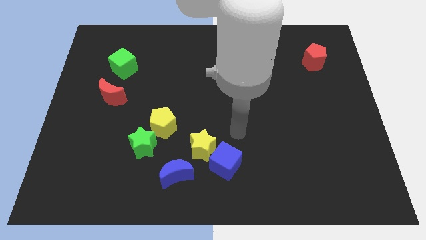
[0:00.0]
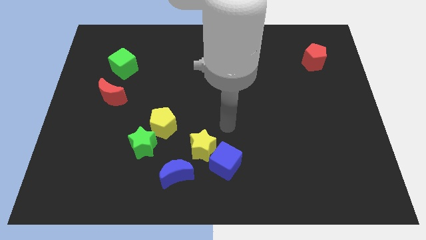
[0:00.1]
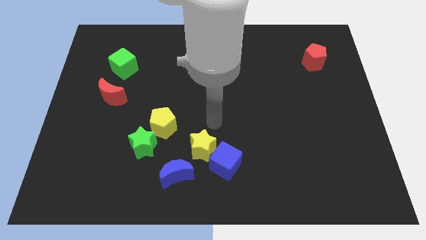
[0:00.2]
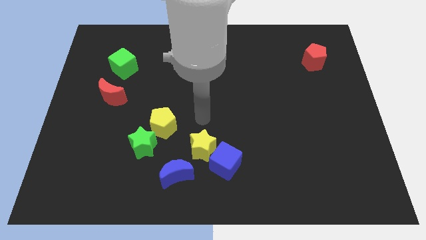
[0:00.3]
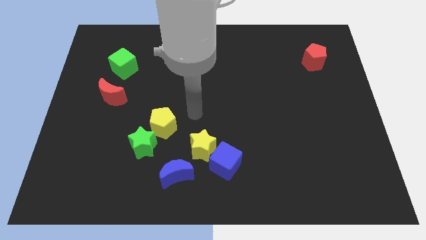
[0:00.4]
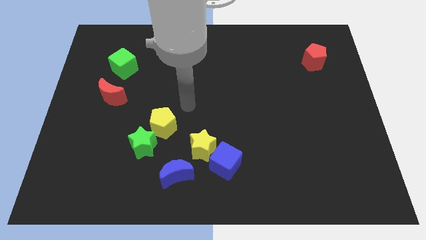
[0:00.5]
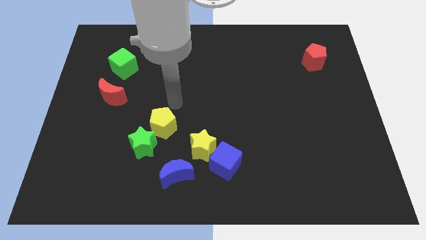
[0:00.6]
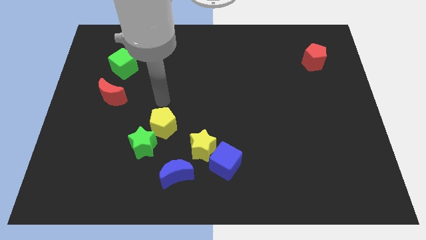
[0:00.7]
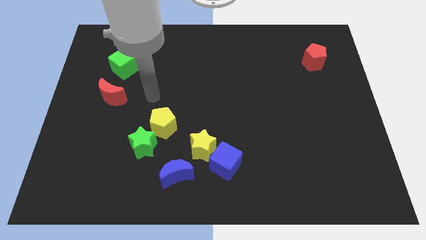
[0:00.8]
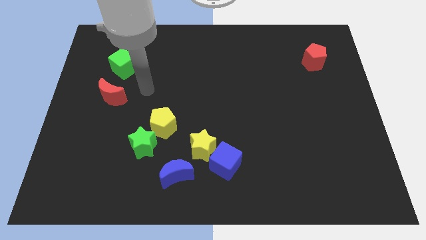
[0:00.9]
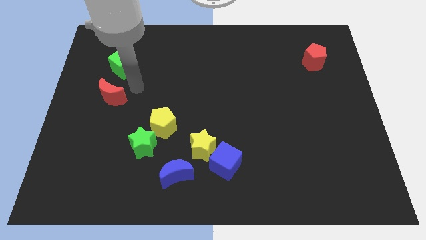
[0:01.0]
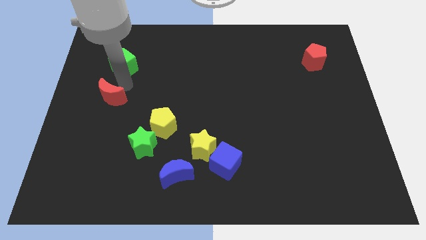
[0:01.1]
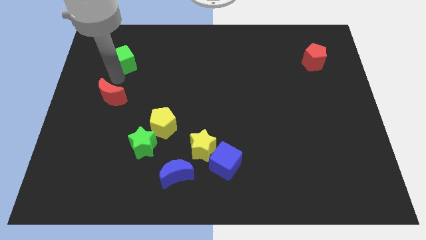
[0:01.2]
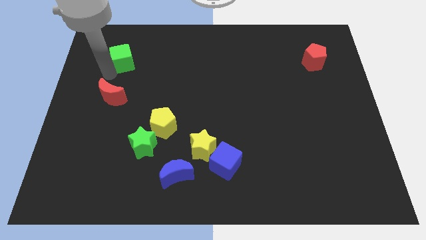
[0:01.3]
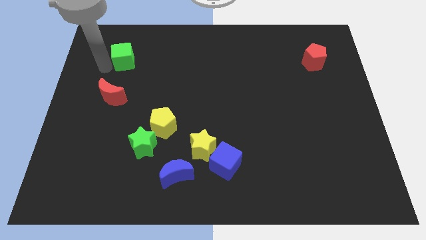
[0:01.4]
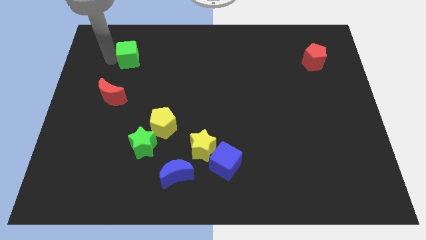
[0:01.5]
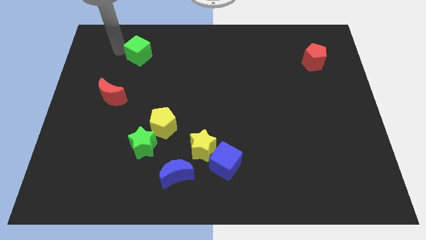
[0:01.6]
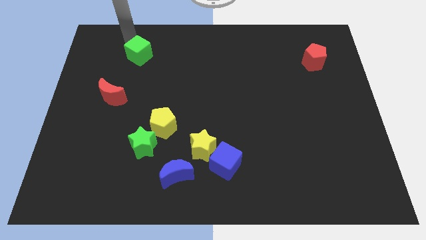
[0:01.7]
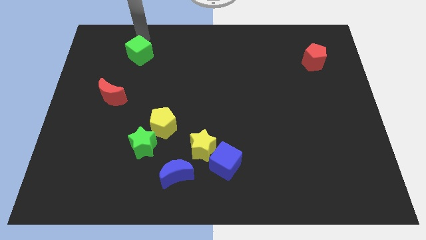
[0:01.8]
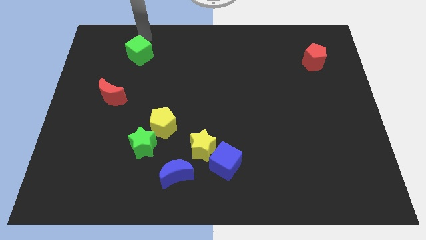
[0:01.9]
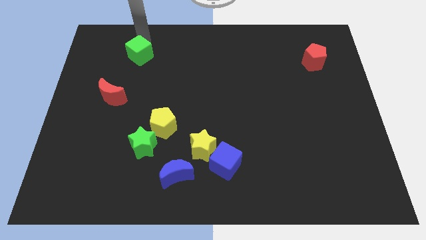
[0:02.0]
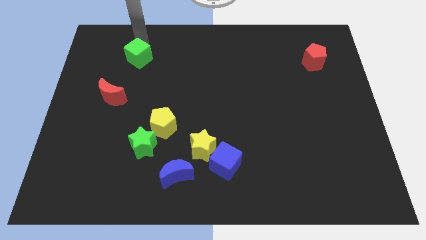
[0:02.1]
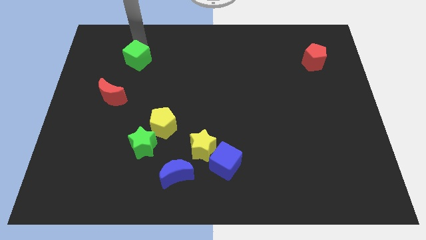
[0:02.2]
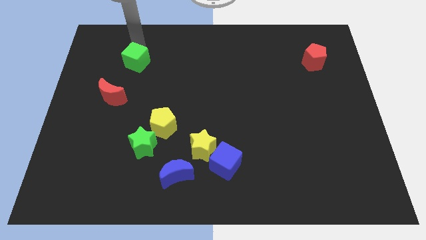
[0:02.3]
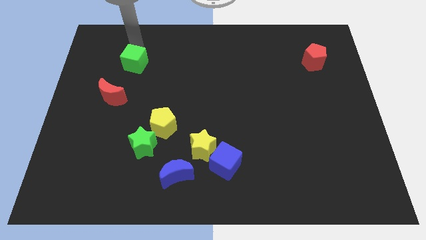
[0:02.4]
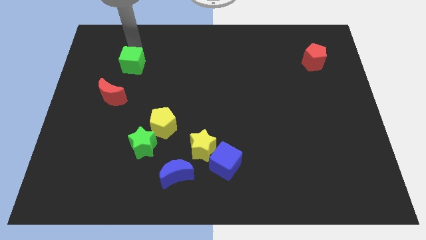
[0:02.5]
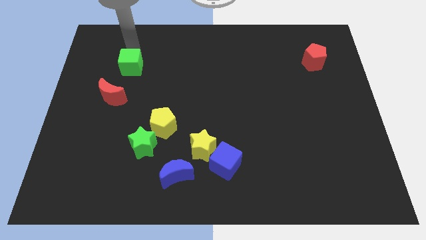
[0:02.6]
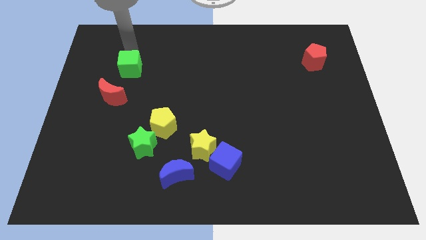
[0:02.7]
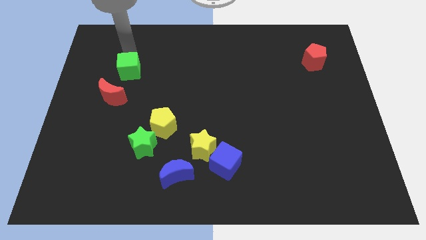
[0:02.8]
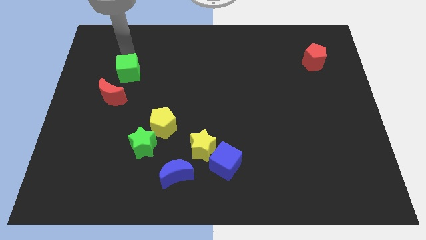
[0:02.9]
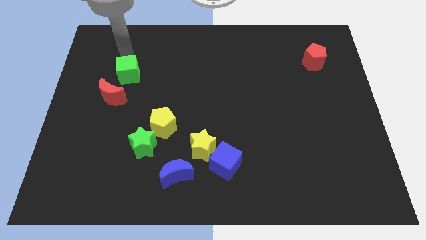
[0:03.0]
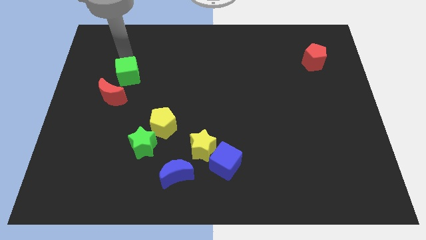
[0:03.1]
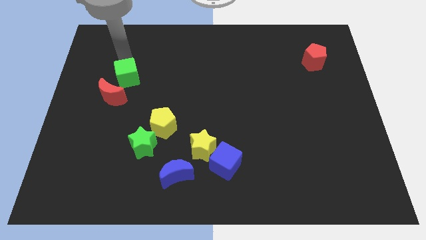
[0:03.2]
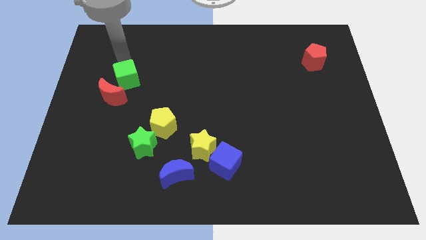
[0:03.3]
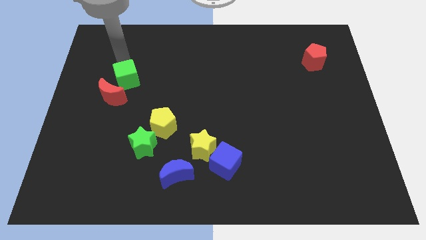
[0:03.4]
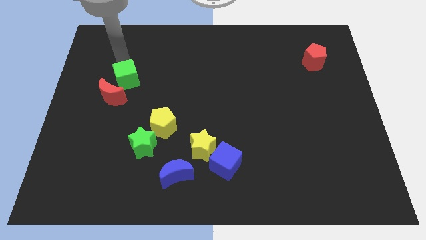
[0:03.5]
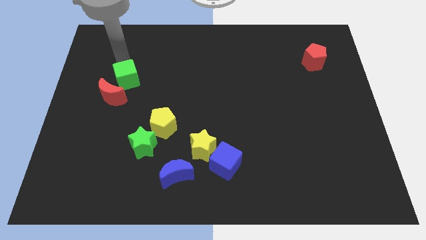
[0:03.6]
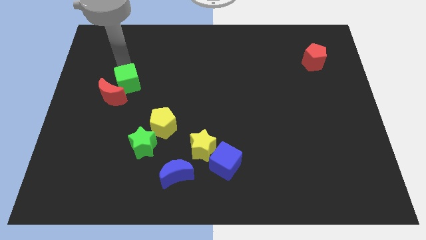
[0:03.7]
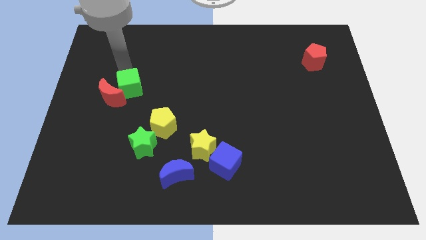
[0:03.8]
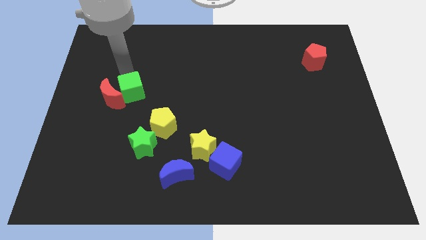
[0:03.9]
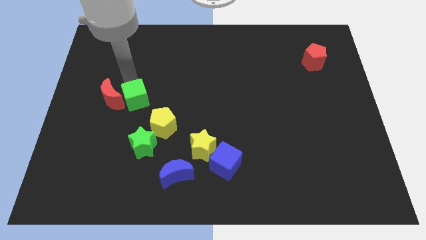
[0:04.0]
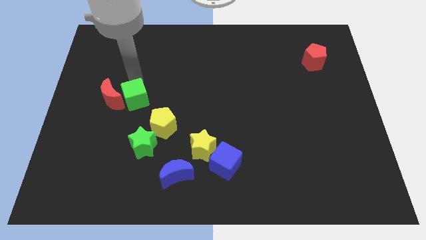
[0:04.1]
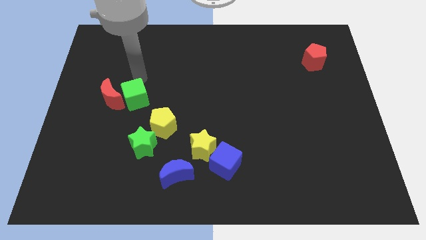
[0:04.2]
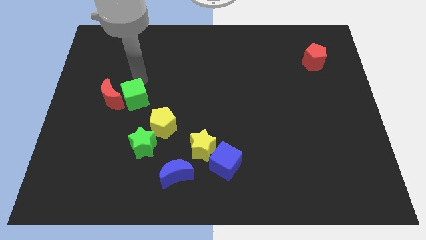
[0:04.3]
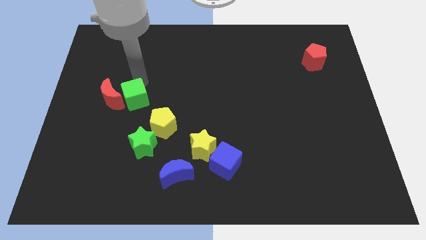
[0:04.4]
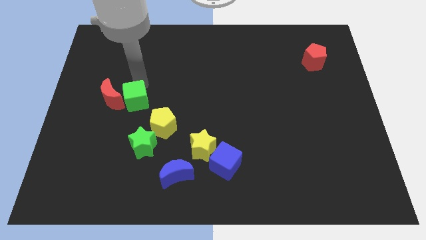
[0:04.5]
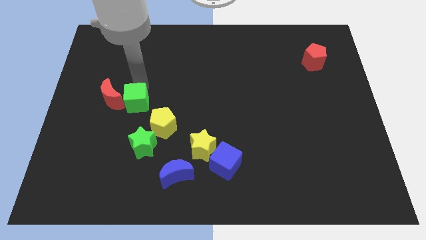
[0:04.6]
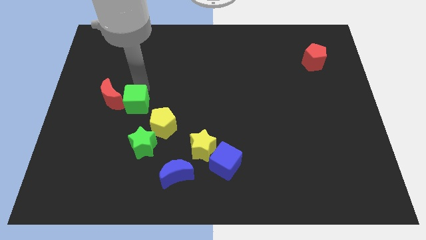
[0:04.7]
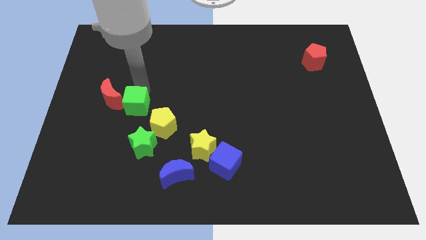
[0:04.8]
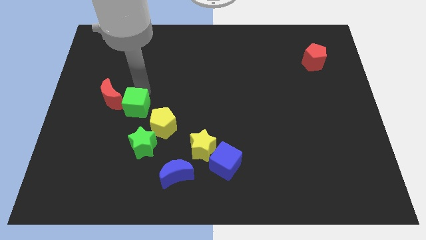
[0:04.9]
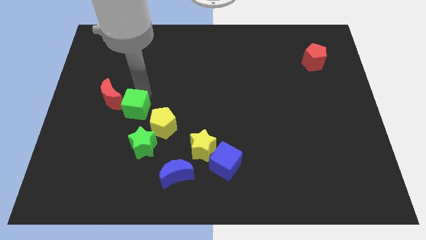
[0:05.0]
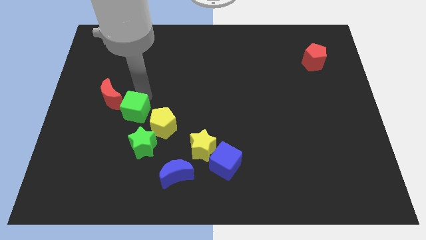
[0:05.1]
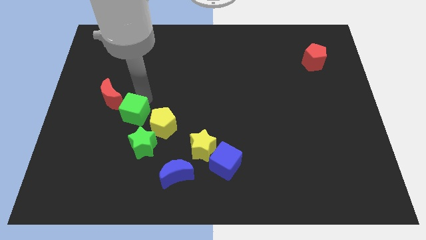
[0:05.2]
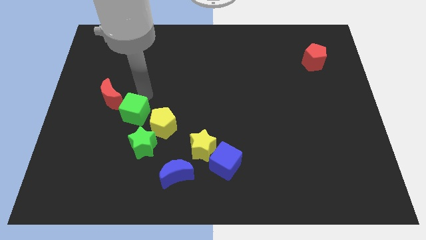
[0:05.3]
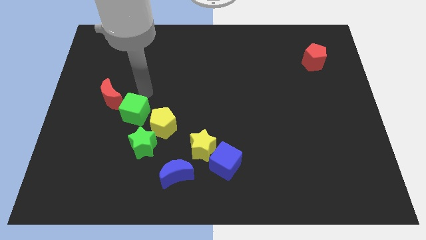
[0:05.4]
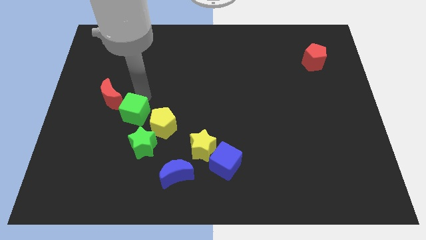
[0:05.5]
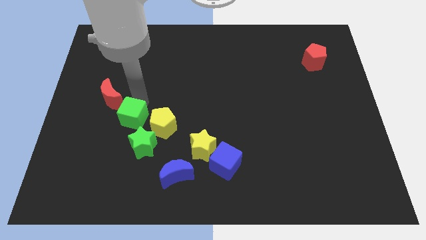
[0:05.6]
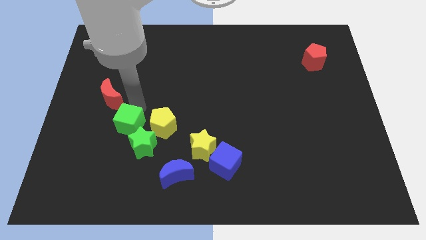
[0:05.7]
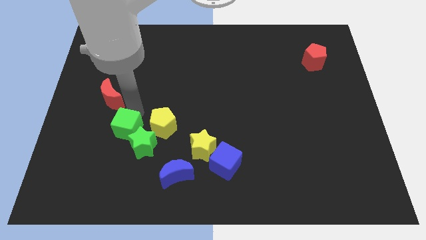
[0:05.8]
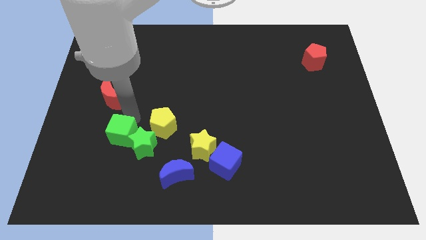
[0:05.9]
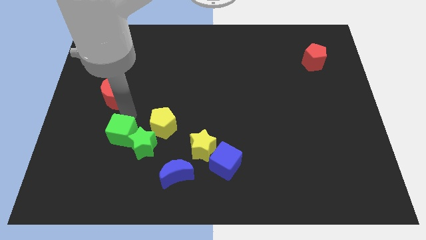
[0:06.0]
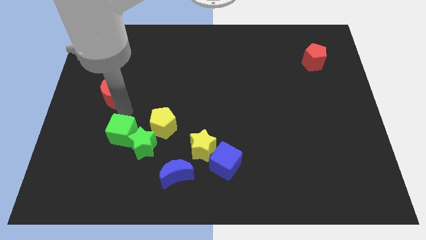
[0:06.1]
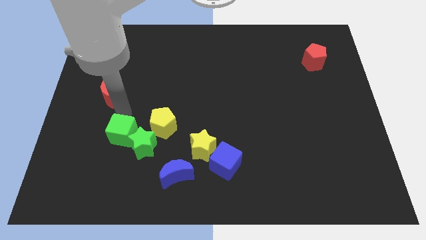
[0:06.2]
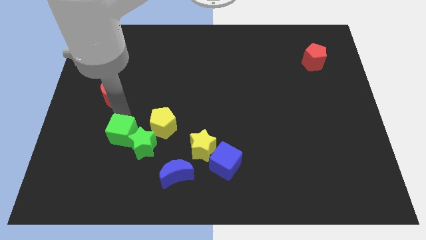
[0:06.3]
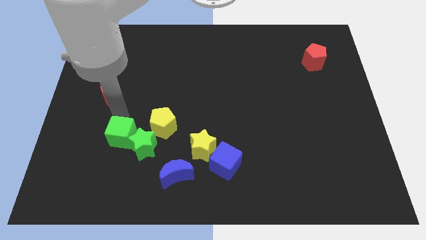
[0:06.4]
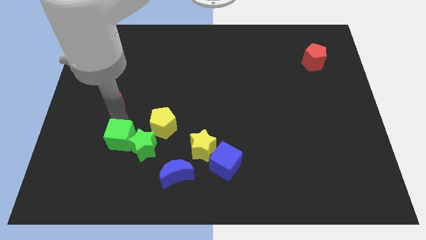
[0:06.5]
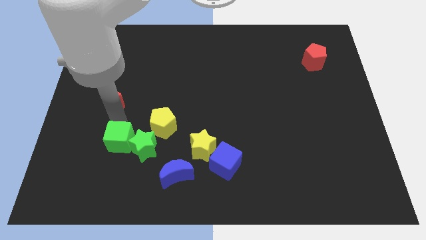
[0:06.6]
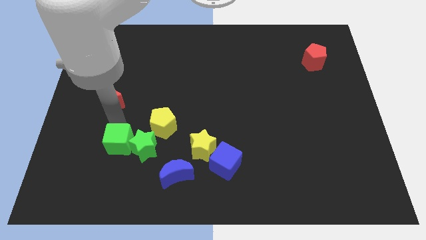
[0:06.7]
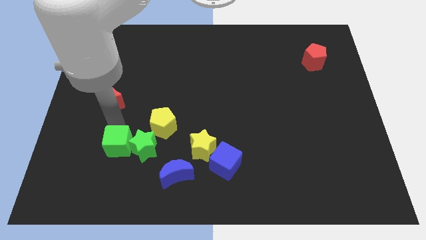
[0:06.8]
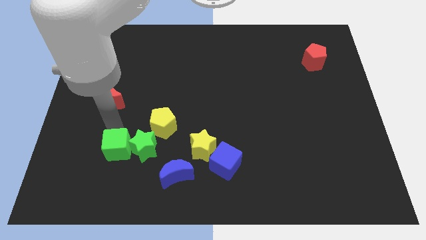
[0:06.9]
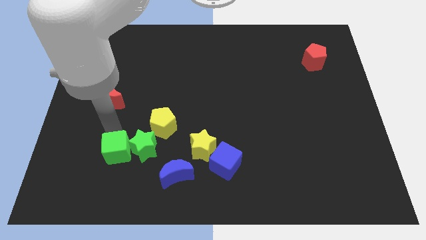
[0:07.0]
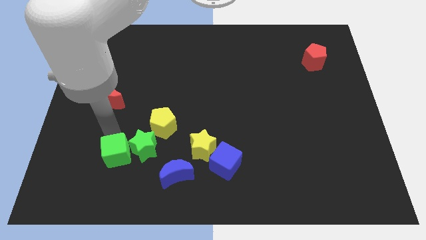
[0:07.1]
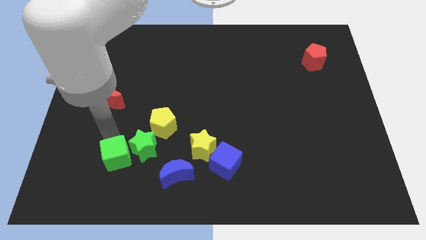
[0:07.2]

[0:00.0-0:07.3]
put the green cube left of the blue moon
